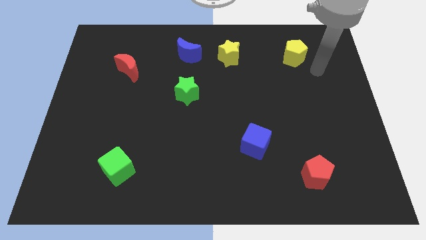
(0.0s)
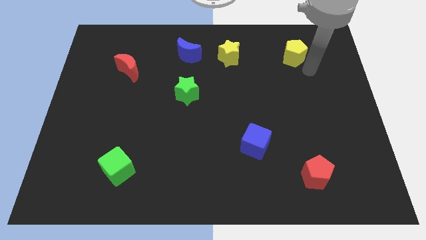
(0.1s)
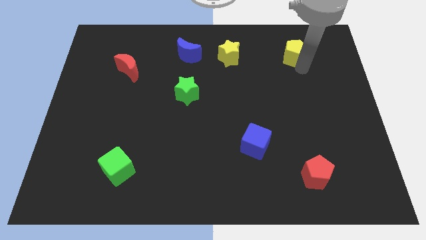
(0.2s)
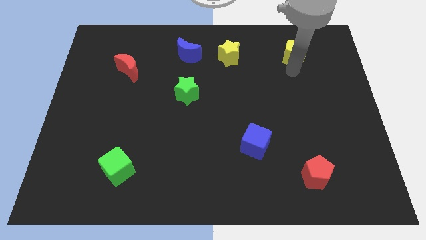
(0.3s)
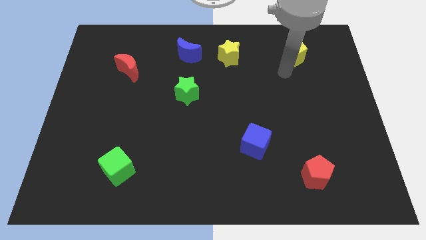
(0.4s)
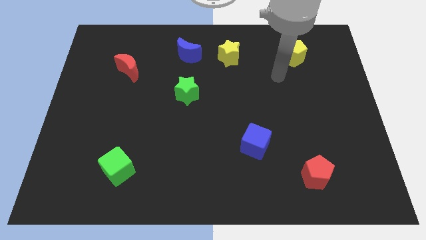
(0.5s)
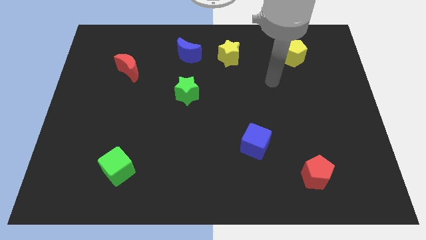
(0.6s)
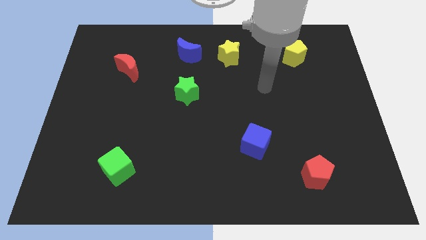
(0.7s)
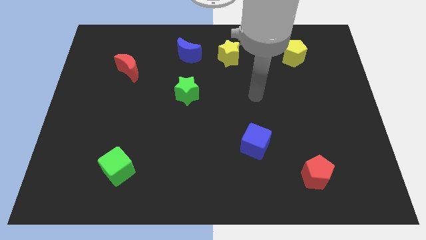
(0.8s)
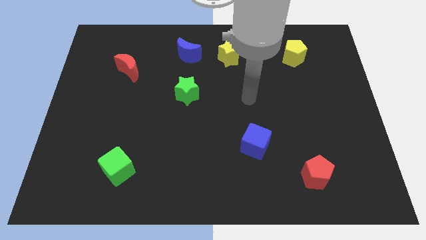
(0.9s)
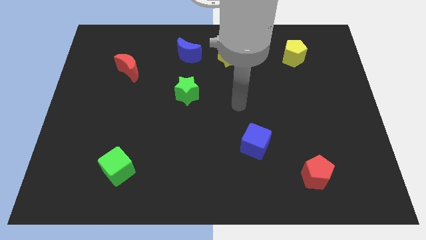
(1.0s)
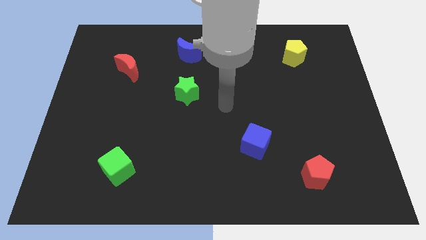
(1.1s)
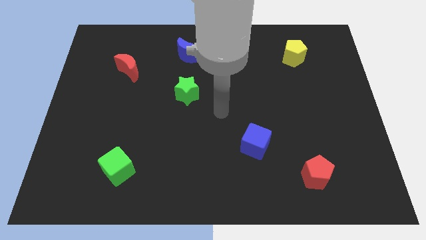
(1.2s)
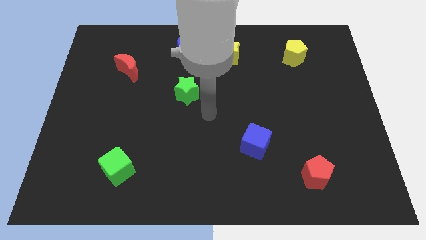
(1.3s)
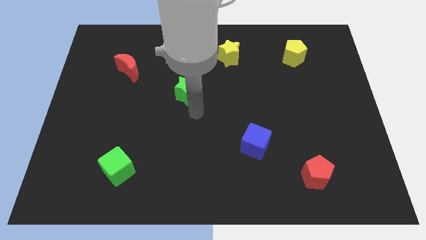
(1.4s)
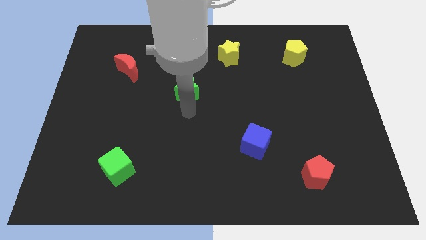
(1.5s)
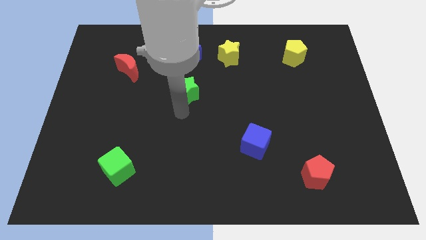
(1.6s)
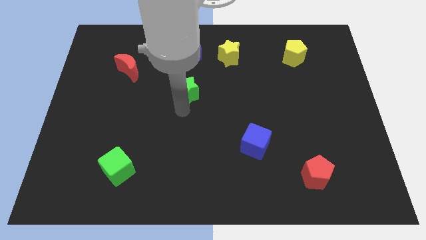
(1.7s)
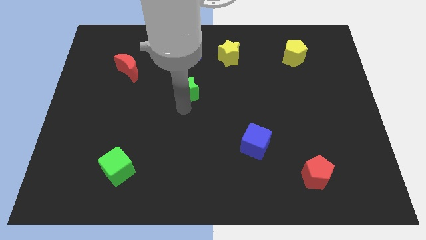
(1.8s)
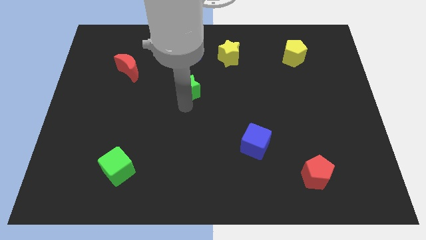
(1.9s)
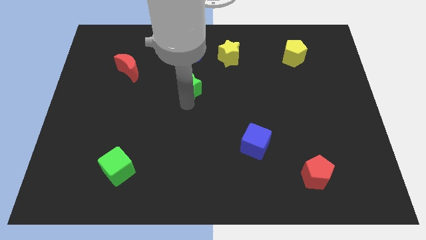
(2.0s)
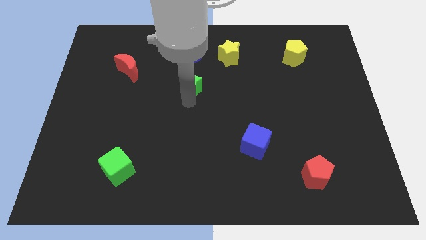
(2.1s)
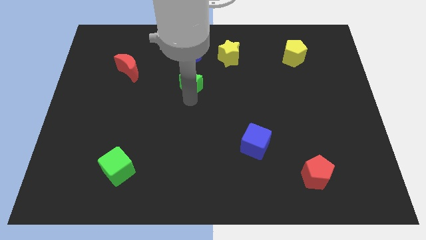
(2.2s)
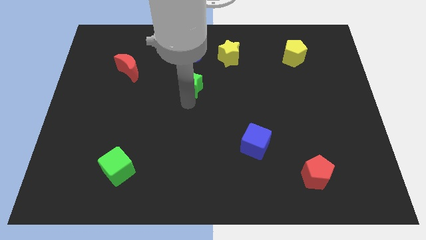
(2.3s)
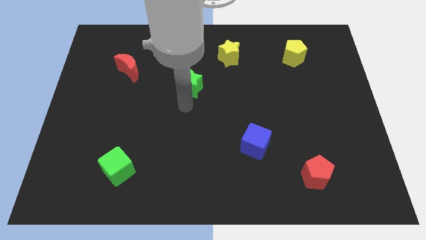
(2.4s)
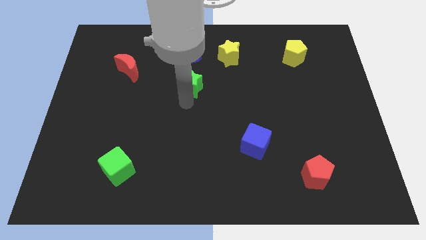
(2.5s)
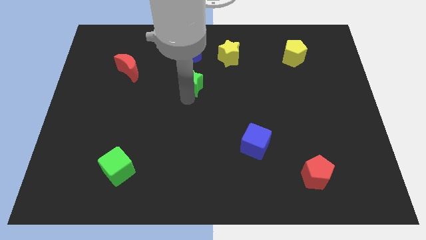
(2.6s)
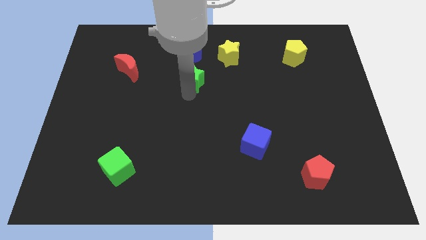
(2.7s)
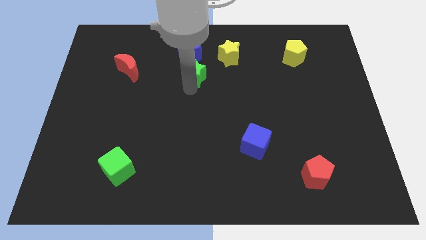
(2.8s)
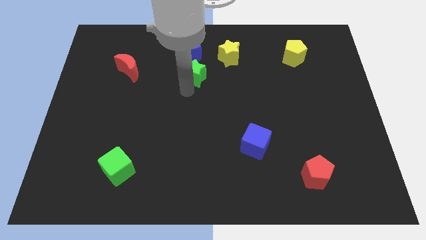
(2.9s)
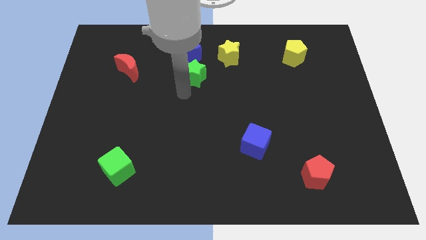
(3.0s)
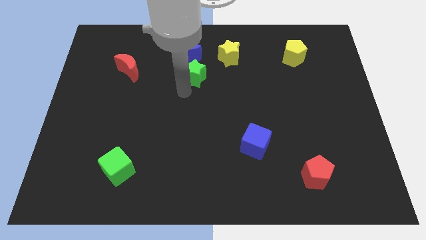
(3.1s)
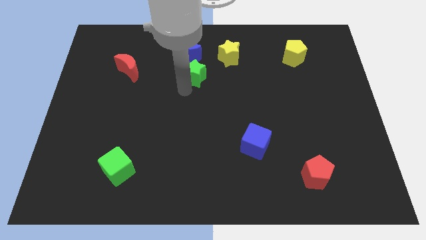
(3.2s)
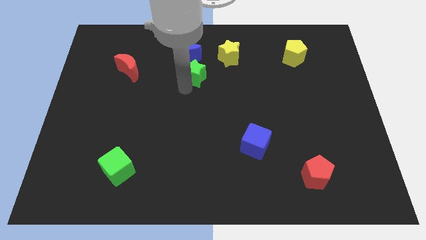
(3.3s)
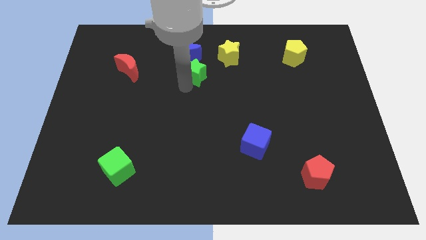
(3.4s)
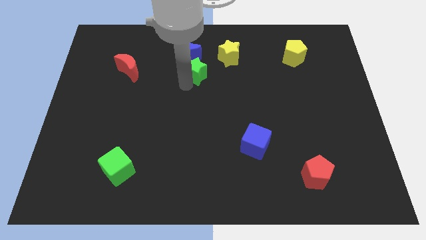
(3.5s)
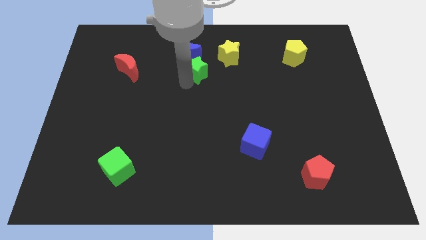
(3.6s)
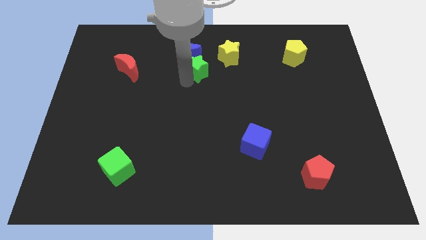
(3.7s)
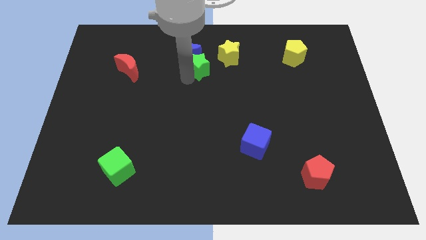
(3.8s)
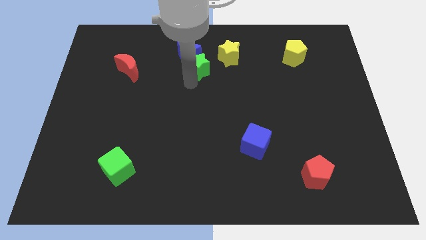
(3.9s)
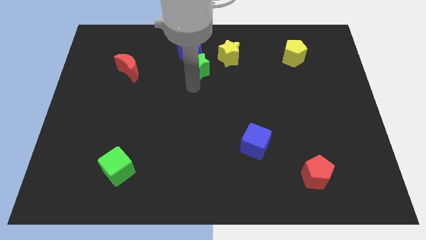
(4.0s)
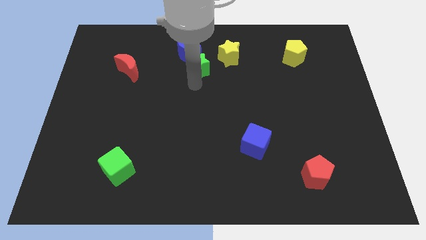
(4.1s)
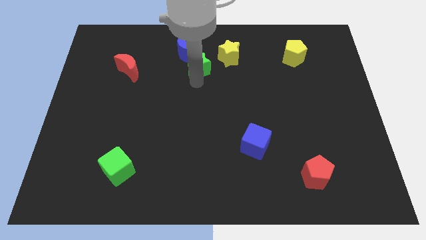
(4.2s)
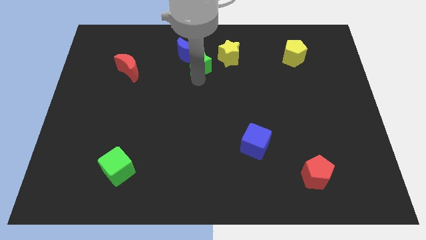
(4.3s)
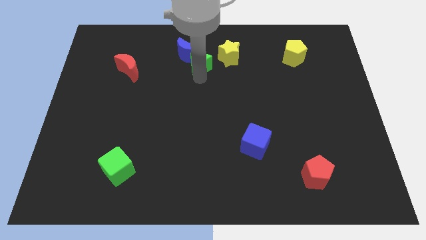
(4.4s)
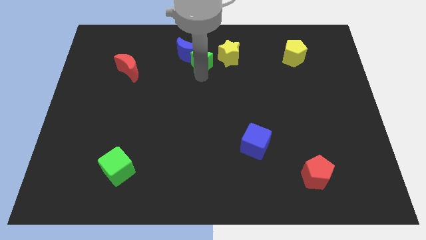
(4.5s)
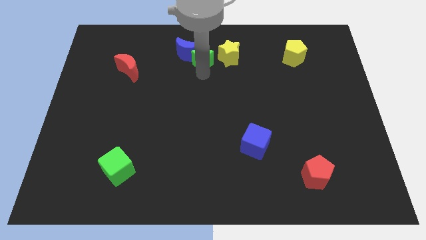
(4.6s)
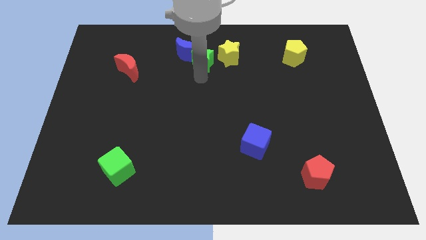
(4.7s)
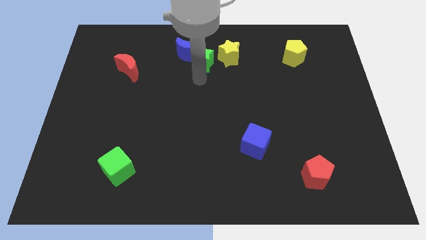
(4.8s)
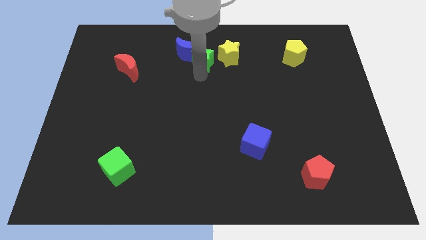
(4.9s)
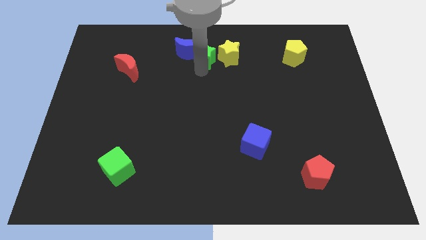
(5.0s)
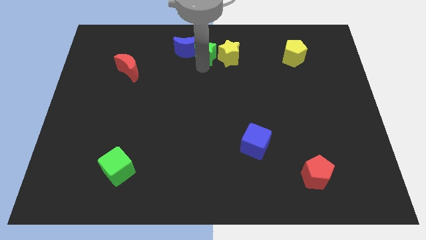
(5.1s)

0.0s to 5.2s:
put the green star to the towards your base

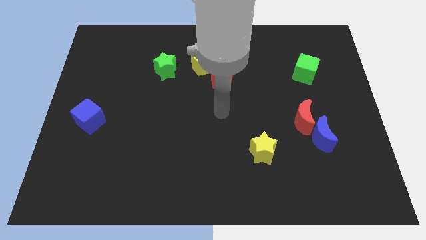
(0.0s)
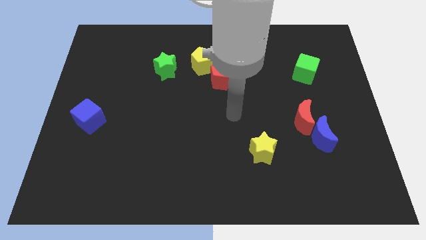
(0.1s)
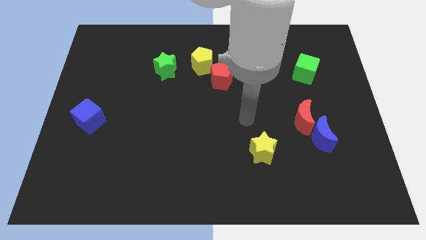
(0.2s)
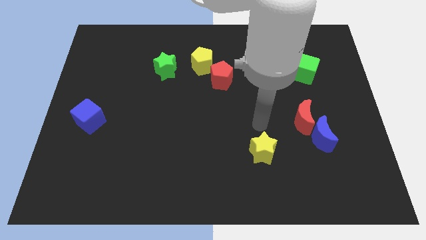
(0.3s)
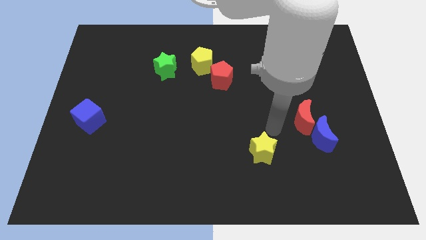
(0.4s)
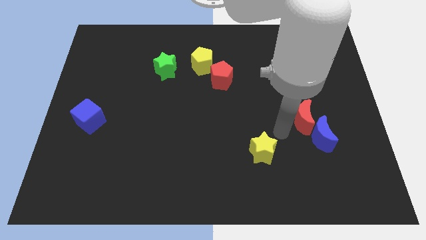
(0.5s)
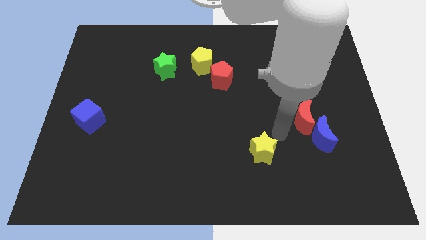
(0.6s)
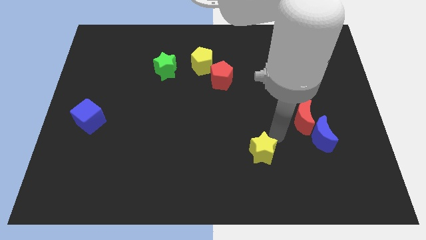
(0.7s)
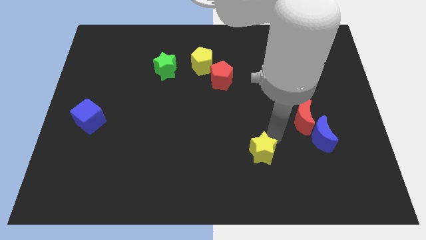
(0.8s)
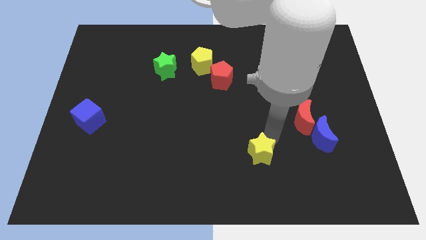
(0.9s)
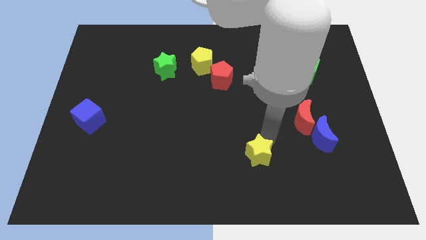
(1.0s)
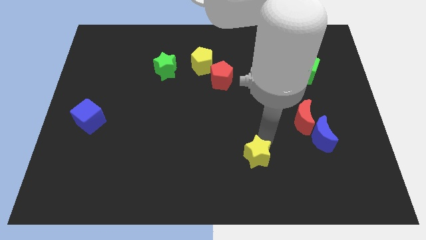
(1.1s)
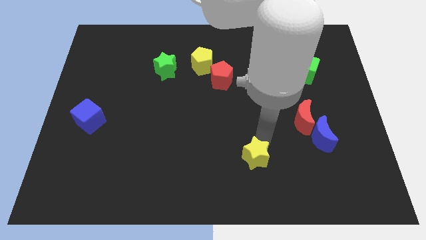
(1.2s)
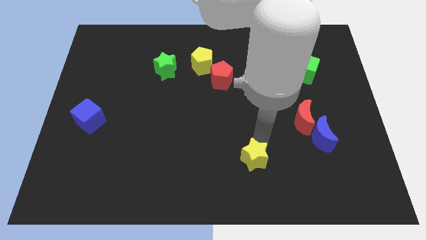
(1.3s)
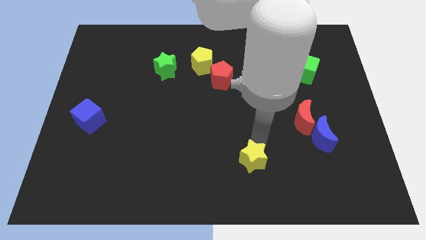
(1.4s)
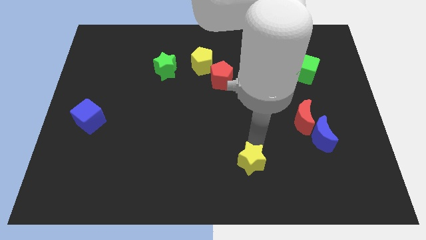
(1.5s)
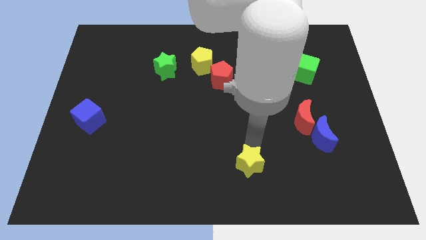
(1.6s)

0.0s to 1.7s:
slide the yellow star to the bottom

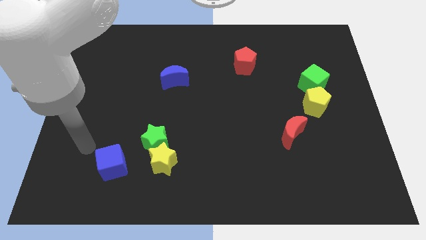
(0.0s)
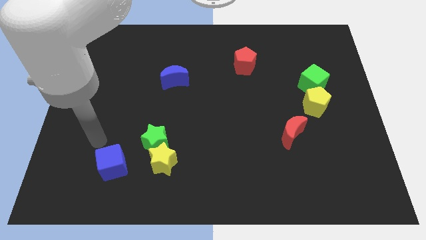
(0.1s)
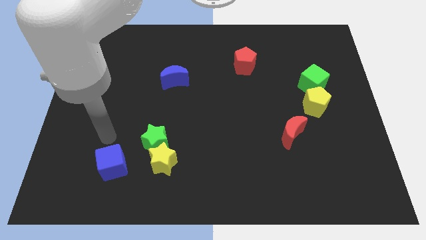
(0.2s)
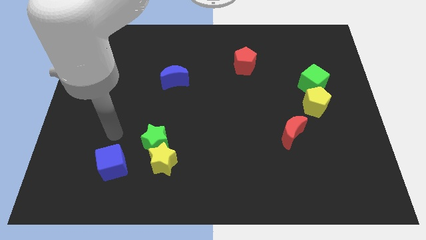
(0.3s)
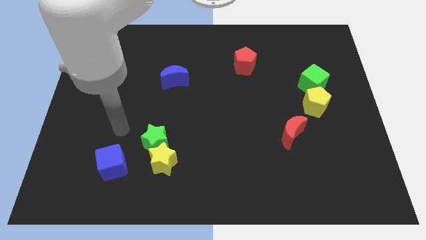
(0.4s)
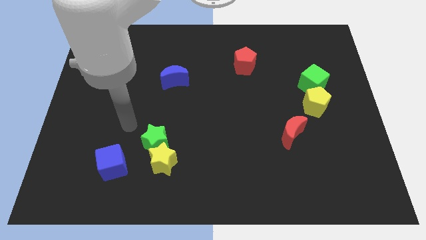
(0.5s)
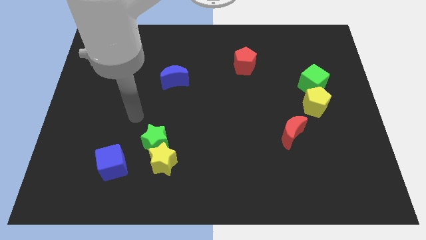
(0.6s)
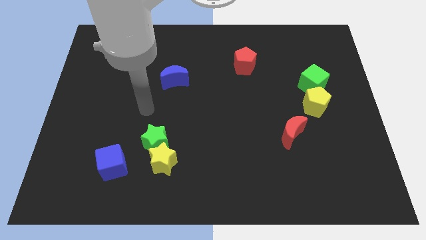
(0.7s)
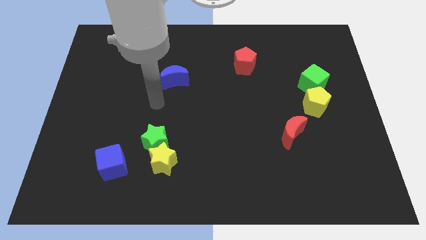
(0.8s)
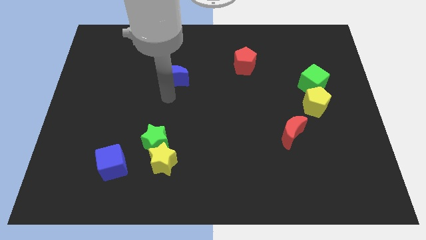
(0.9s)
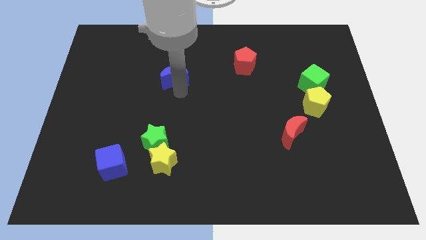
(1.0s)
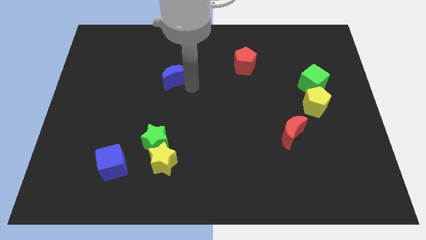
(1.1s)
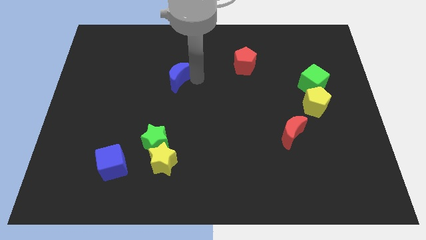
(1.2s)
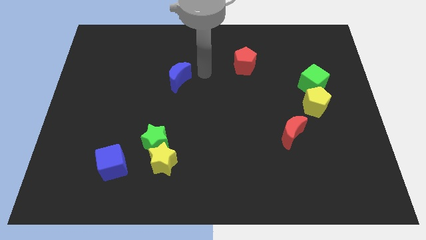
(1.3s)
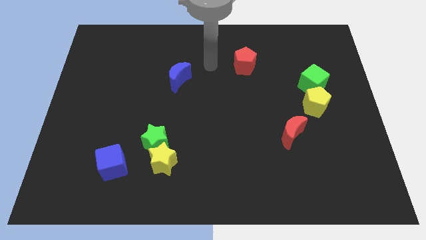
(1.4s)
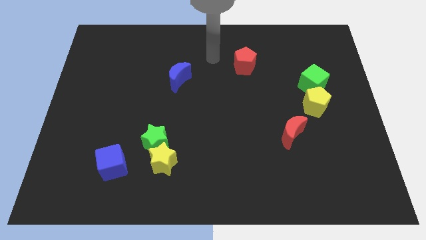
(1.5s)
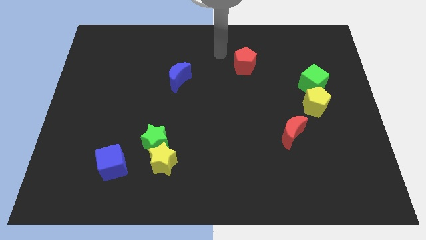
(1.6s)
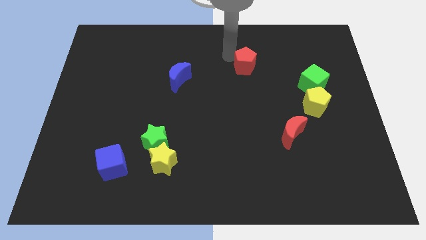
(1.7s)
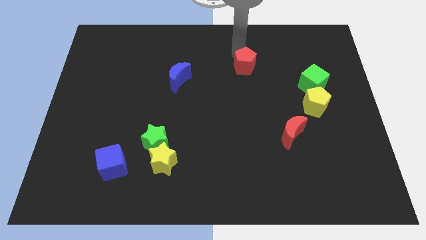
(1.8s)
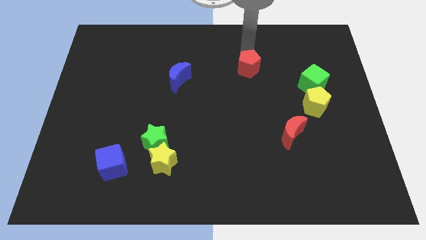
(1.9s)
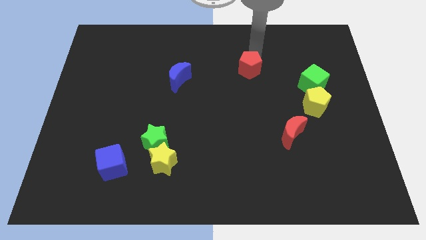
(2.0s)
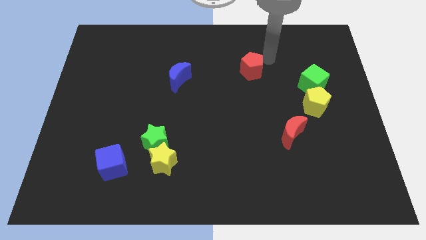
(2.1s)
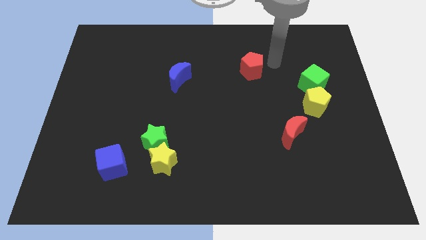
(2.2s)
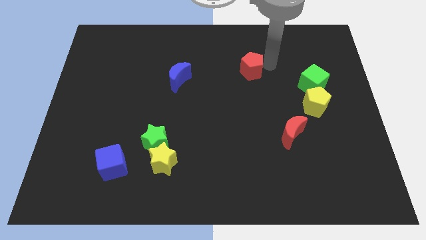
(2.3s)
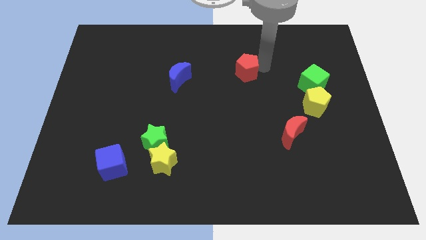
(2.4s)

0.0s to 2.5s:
slide the red pentagon to the center of the board
